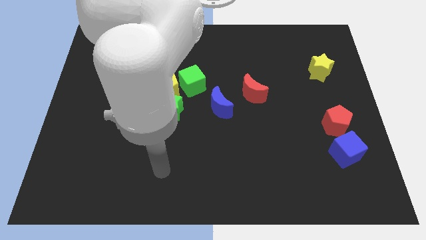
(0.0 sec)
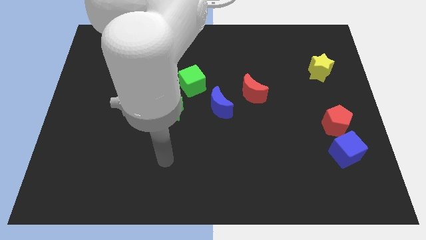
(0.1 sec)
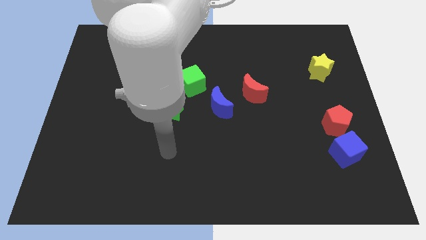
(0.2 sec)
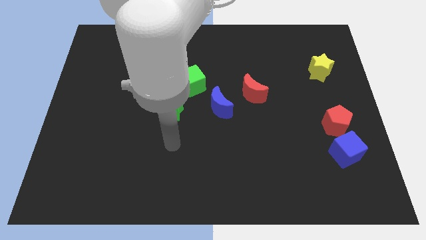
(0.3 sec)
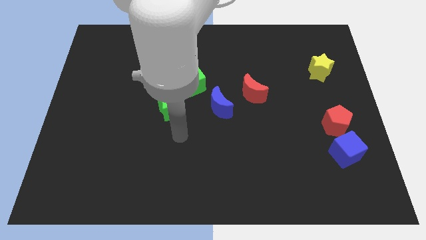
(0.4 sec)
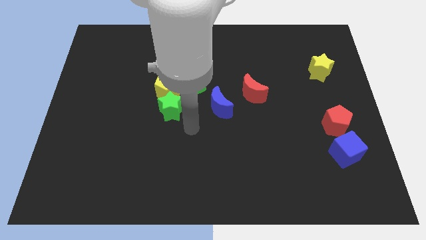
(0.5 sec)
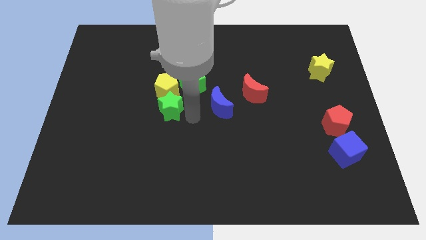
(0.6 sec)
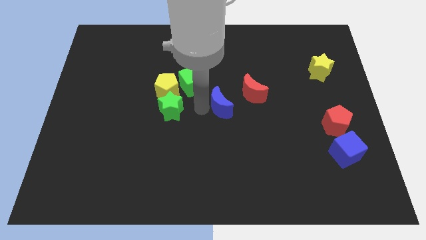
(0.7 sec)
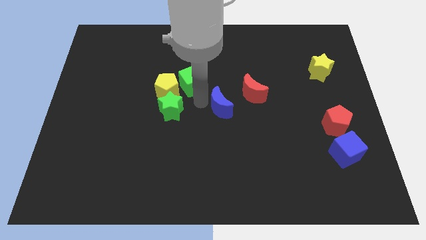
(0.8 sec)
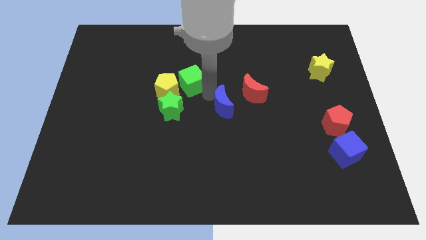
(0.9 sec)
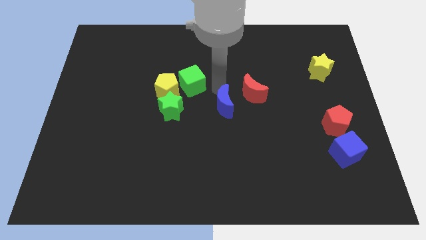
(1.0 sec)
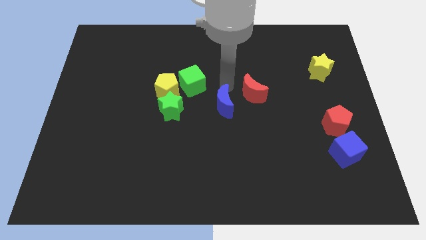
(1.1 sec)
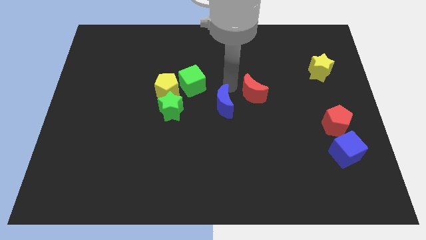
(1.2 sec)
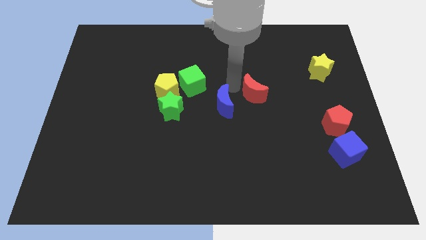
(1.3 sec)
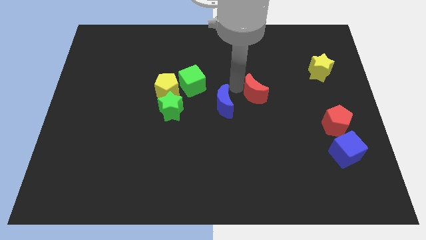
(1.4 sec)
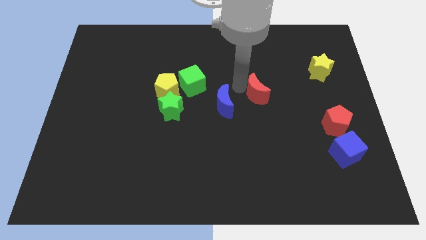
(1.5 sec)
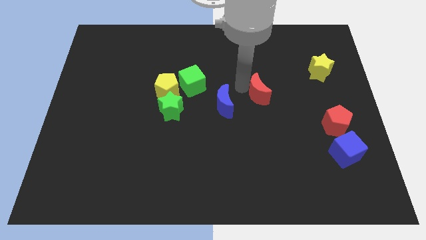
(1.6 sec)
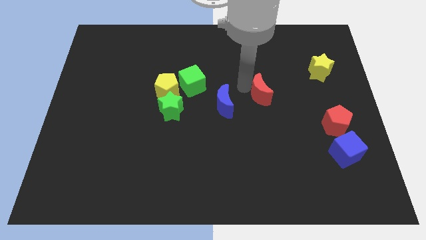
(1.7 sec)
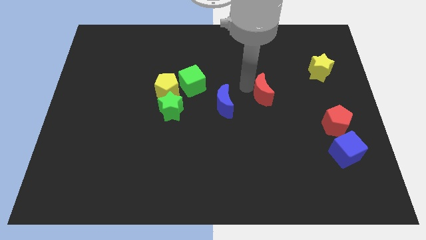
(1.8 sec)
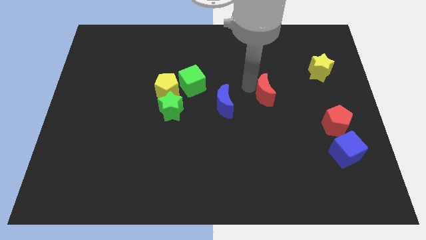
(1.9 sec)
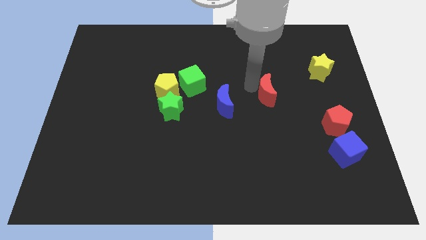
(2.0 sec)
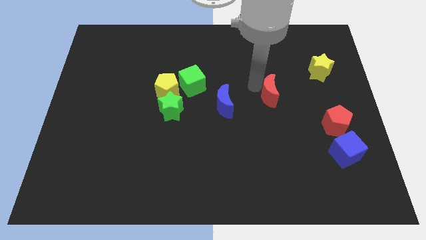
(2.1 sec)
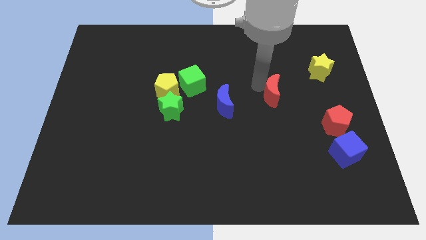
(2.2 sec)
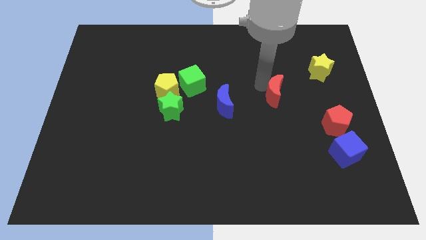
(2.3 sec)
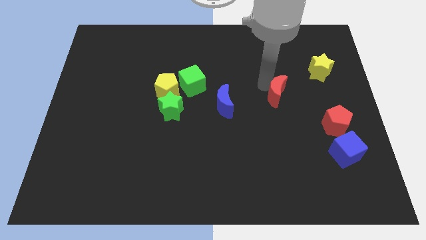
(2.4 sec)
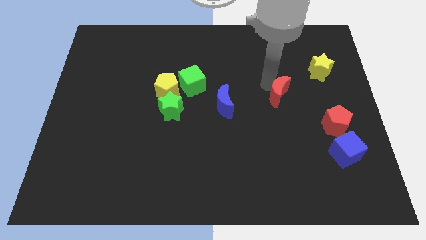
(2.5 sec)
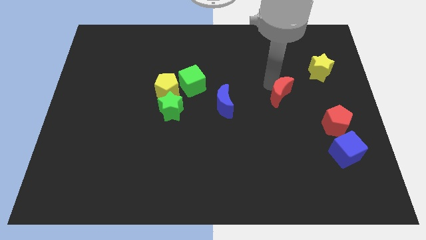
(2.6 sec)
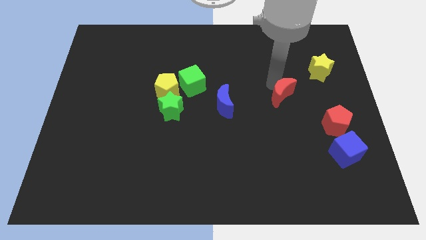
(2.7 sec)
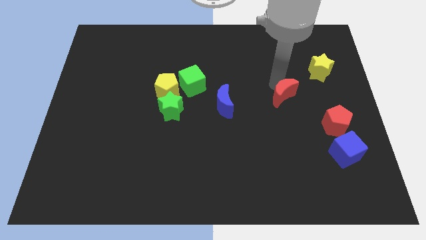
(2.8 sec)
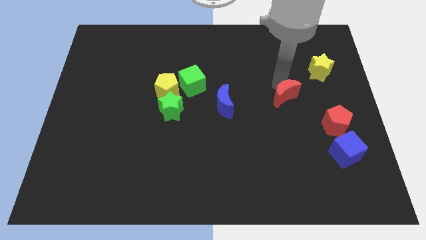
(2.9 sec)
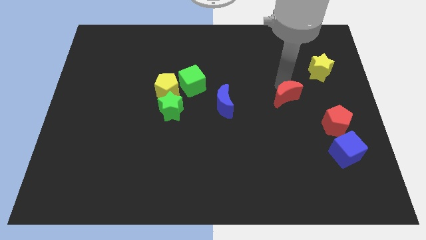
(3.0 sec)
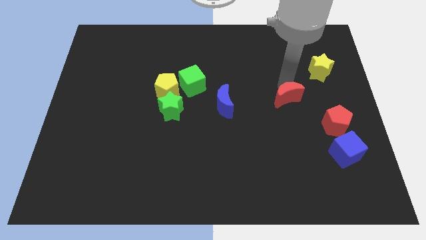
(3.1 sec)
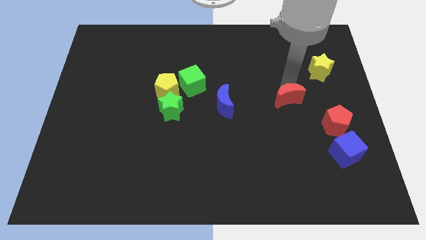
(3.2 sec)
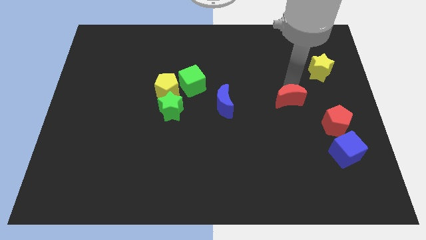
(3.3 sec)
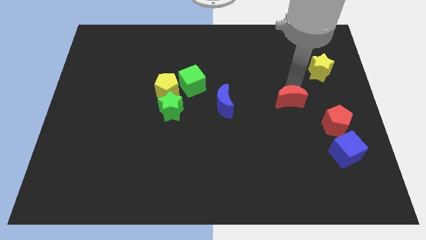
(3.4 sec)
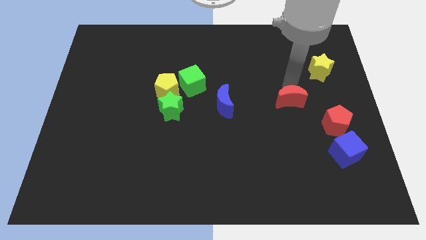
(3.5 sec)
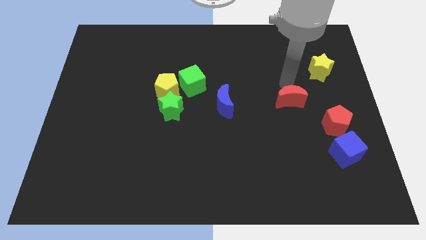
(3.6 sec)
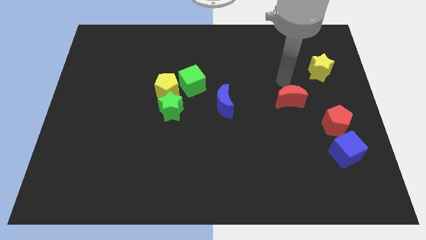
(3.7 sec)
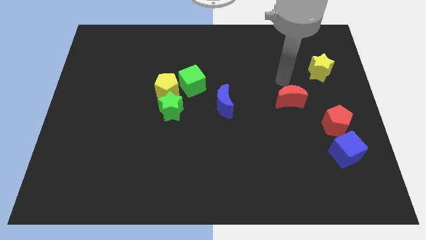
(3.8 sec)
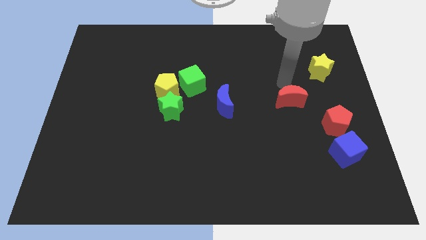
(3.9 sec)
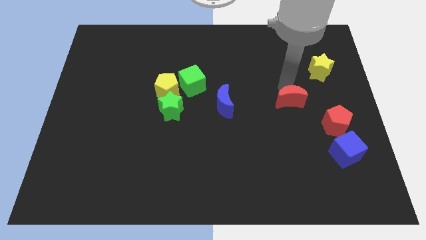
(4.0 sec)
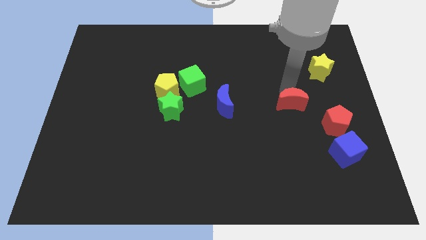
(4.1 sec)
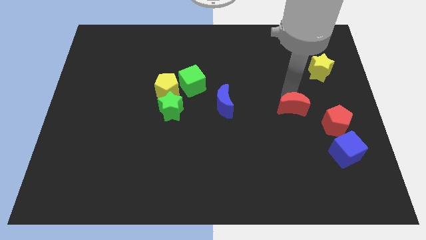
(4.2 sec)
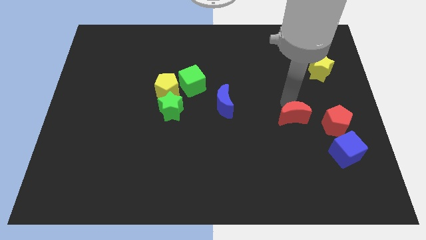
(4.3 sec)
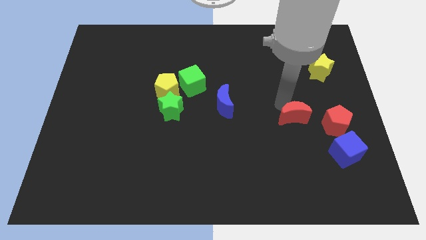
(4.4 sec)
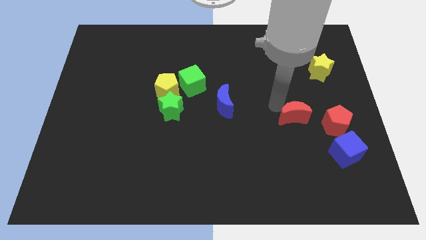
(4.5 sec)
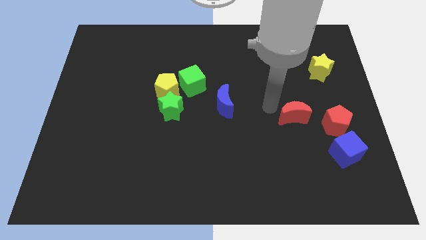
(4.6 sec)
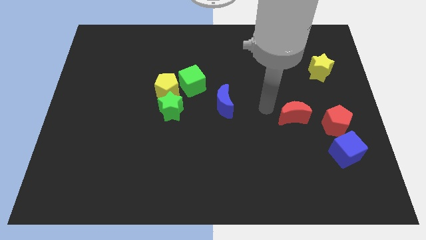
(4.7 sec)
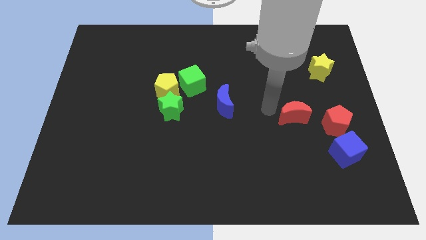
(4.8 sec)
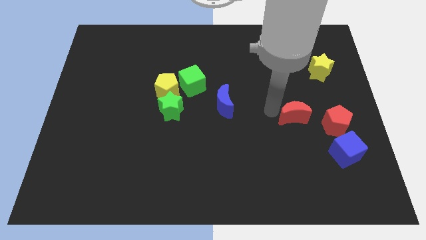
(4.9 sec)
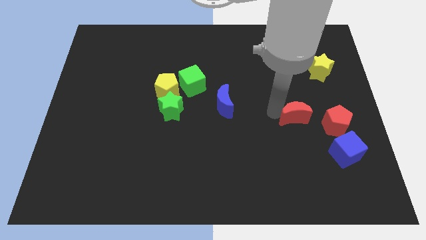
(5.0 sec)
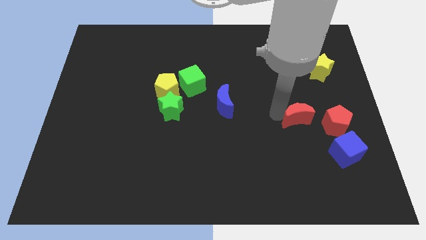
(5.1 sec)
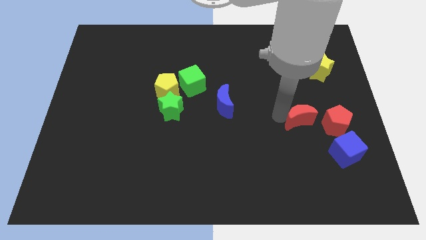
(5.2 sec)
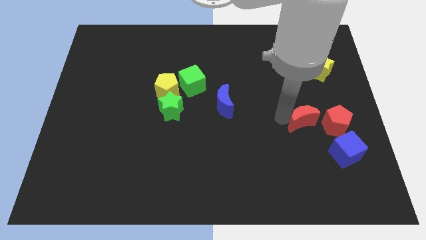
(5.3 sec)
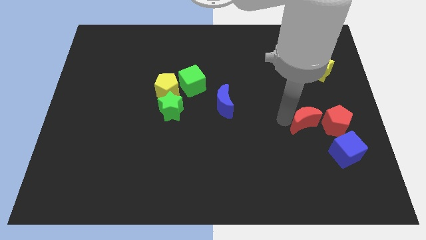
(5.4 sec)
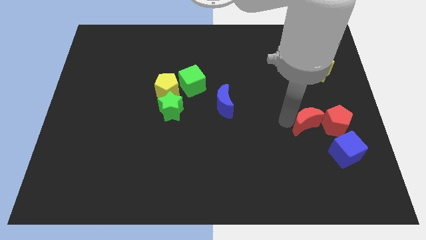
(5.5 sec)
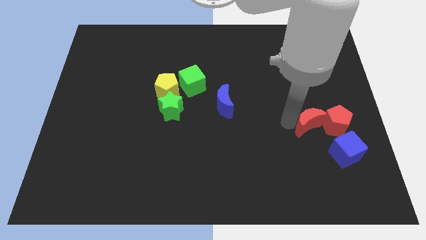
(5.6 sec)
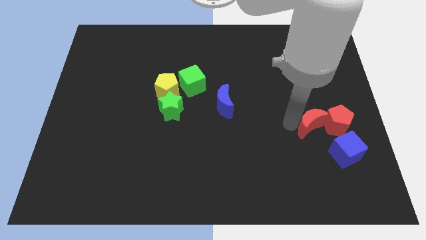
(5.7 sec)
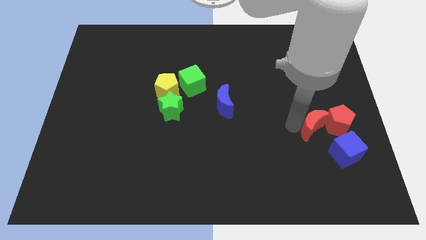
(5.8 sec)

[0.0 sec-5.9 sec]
move the red moon to the red pentagon

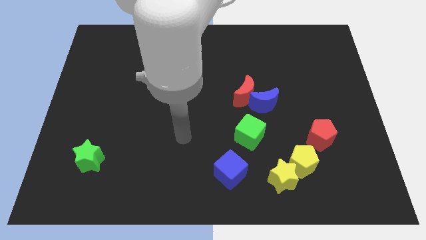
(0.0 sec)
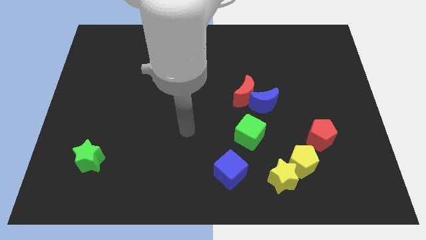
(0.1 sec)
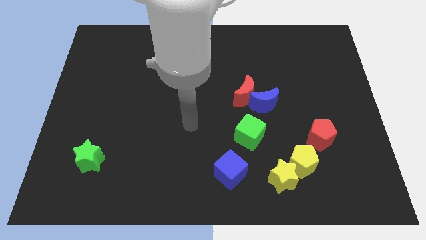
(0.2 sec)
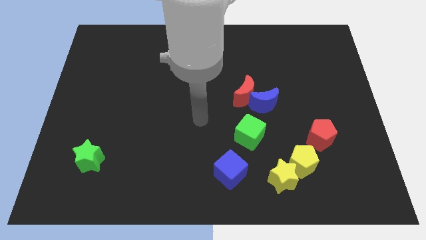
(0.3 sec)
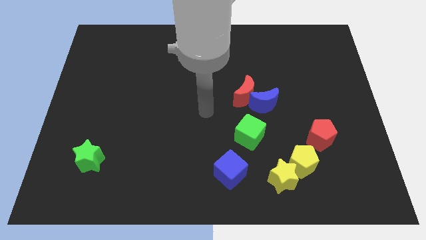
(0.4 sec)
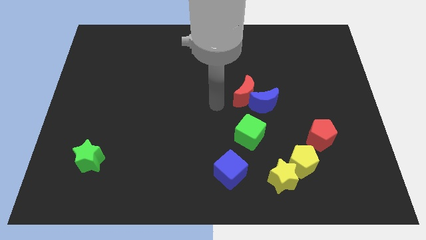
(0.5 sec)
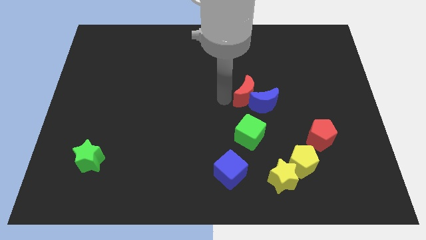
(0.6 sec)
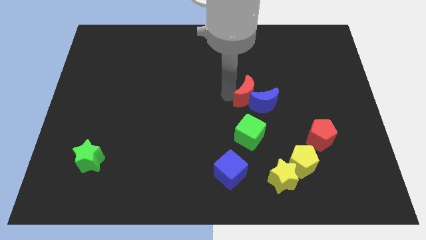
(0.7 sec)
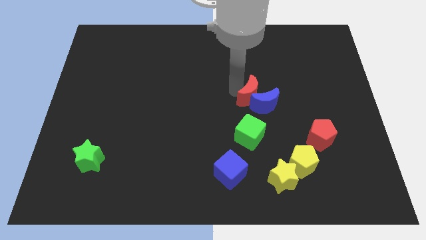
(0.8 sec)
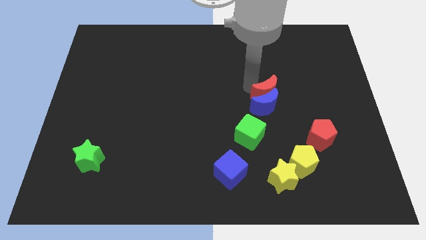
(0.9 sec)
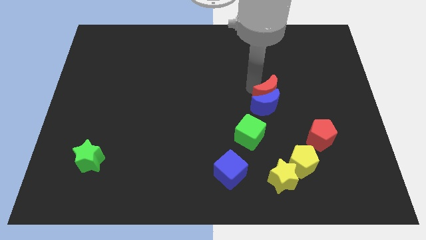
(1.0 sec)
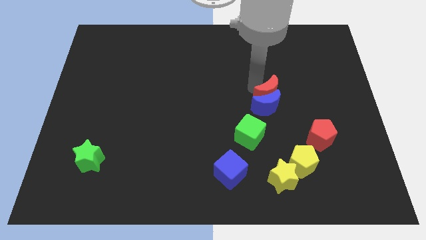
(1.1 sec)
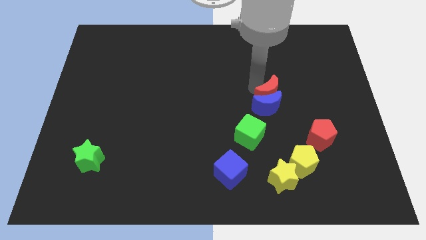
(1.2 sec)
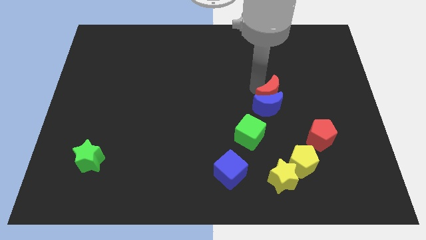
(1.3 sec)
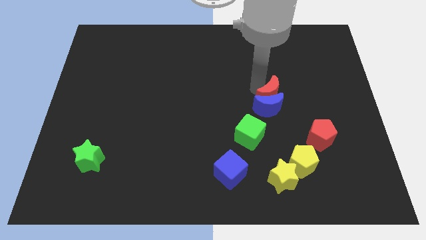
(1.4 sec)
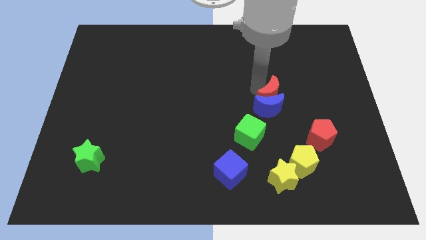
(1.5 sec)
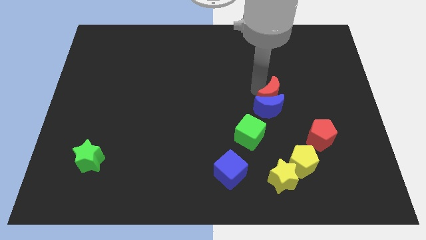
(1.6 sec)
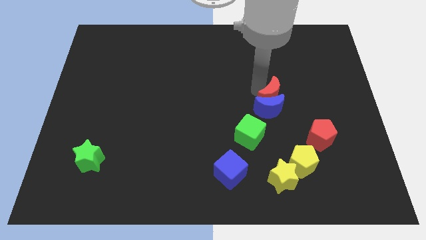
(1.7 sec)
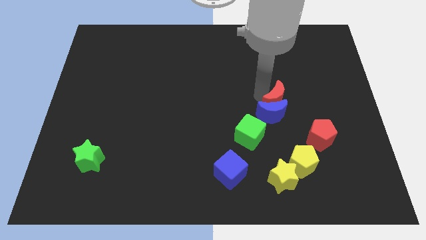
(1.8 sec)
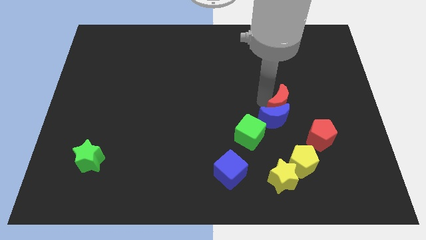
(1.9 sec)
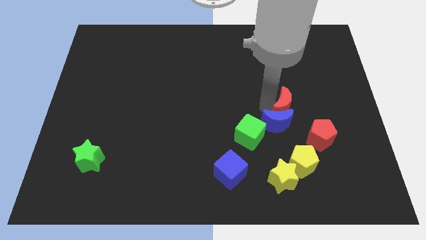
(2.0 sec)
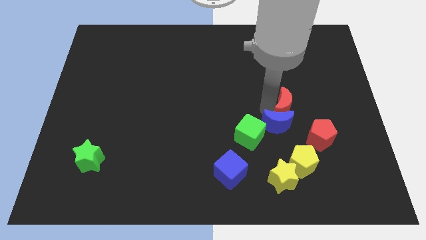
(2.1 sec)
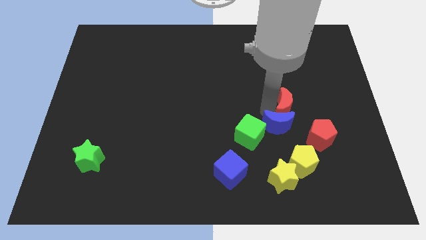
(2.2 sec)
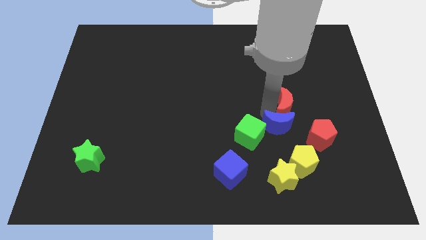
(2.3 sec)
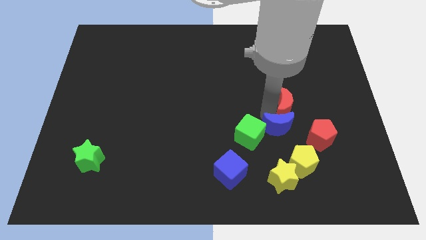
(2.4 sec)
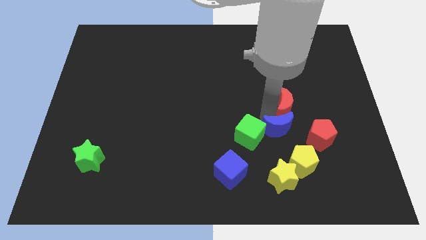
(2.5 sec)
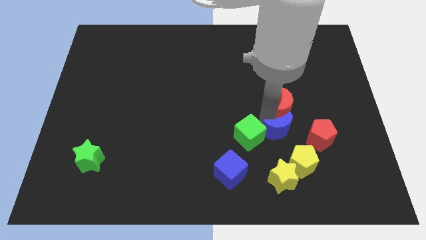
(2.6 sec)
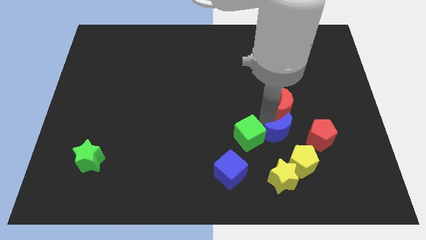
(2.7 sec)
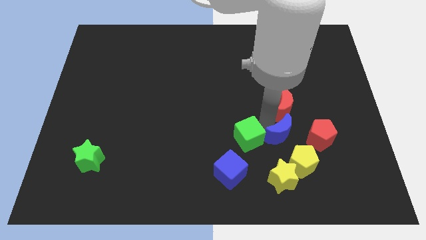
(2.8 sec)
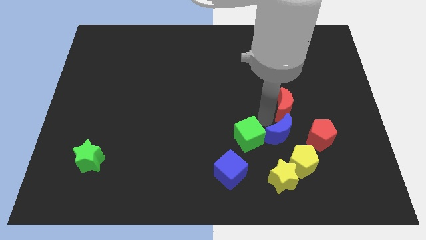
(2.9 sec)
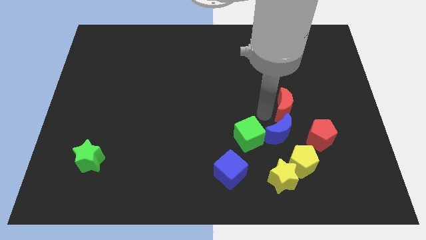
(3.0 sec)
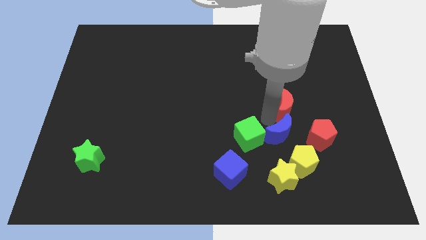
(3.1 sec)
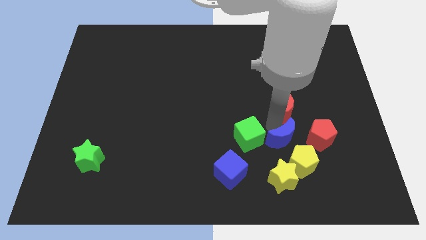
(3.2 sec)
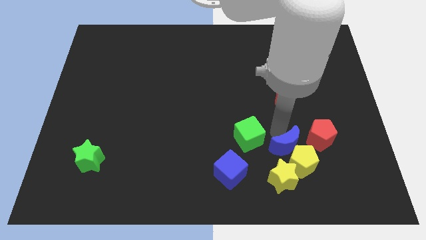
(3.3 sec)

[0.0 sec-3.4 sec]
slide the blue moon to the yellow pentagon
